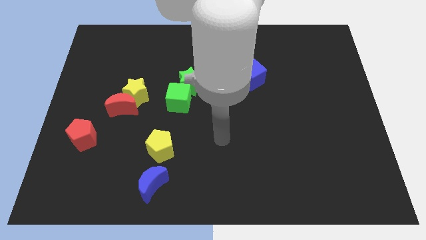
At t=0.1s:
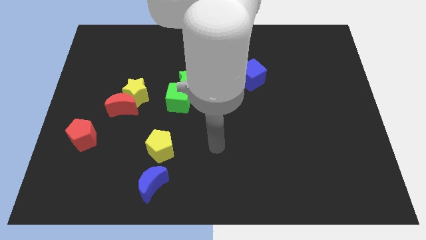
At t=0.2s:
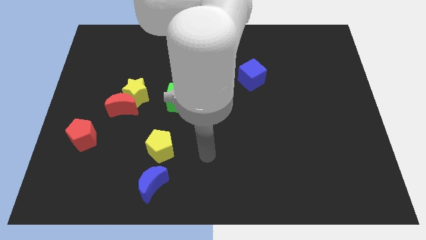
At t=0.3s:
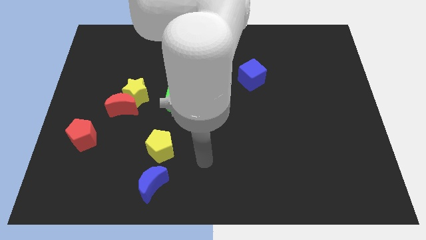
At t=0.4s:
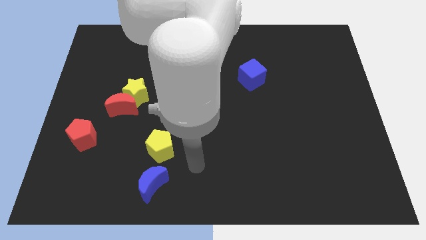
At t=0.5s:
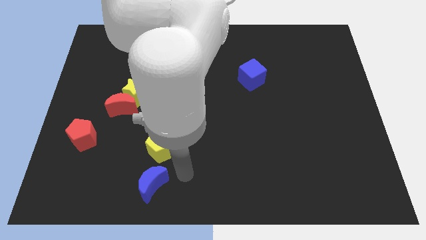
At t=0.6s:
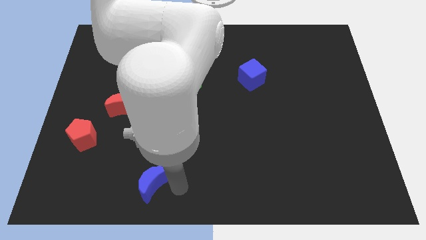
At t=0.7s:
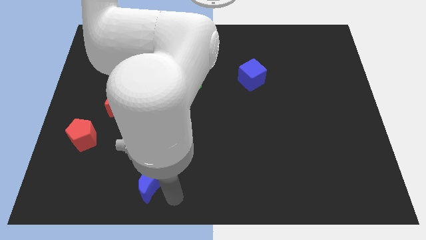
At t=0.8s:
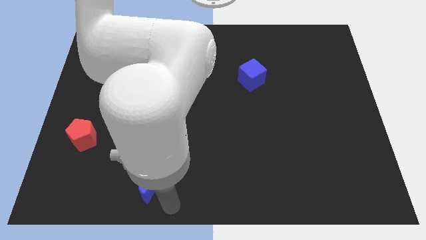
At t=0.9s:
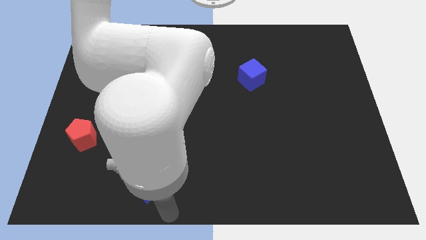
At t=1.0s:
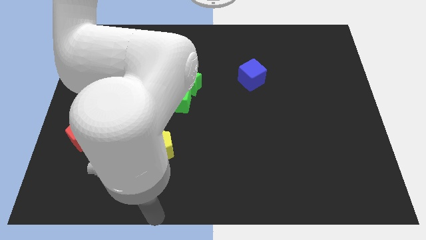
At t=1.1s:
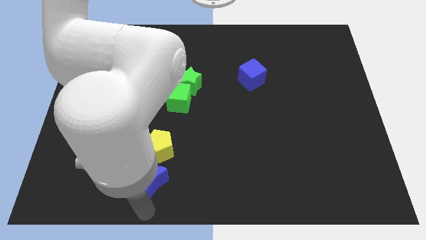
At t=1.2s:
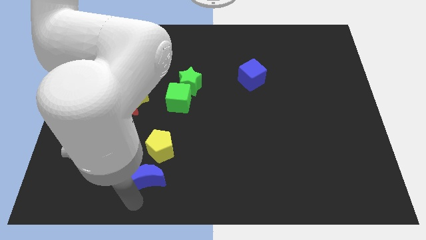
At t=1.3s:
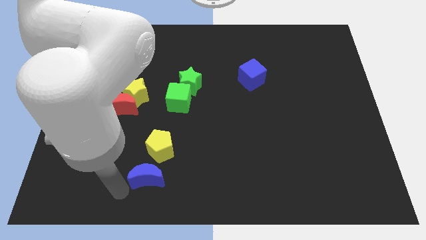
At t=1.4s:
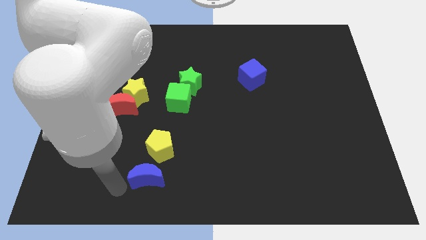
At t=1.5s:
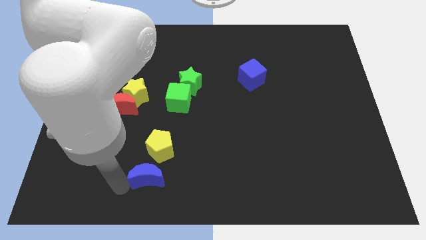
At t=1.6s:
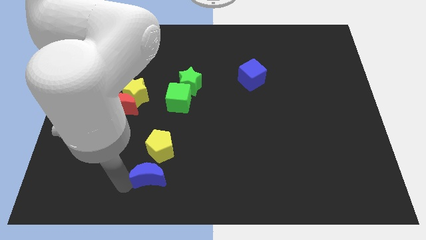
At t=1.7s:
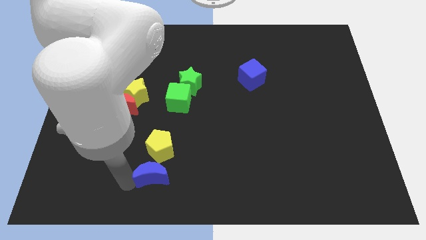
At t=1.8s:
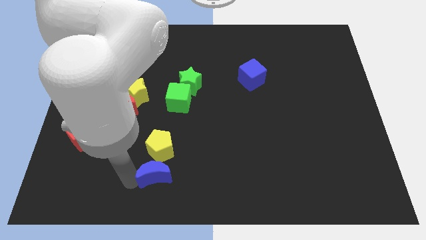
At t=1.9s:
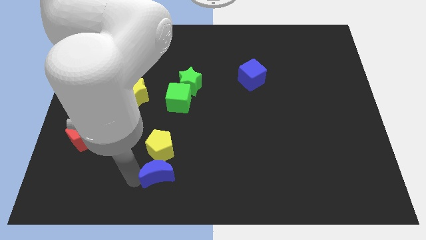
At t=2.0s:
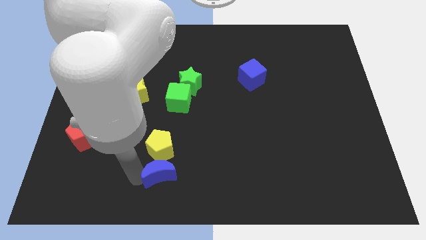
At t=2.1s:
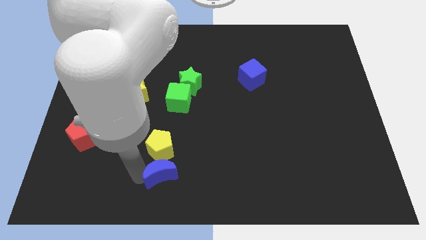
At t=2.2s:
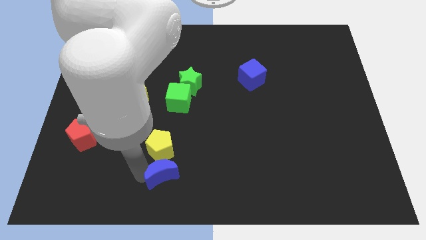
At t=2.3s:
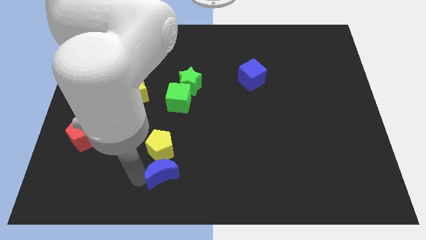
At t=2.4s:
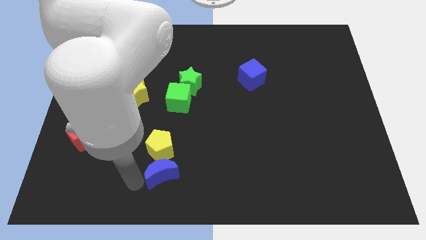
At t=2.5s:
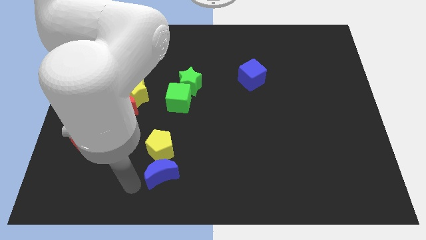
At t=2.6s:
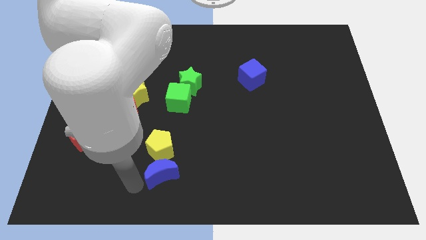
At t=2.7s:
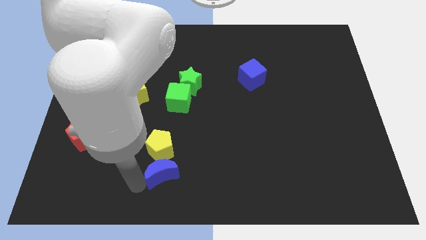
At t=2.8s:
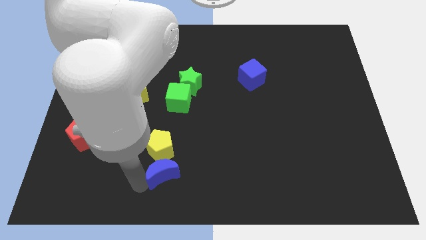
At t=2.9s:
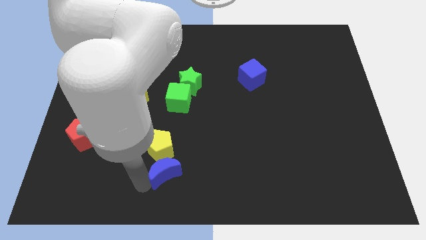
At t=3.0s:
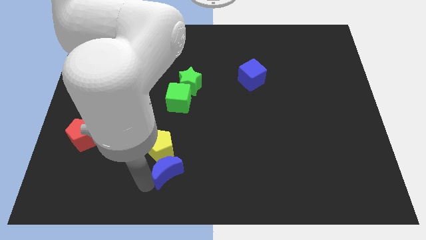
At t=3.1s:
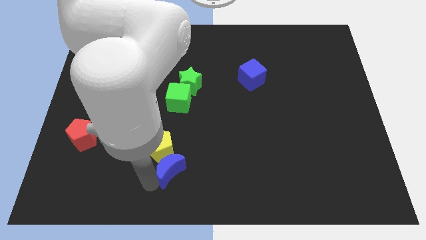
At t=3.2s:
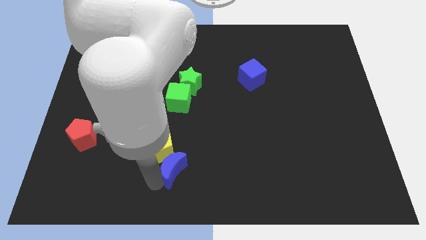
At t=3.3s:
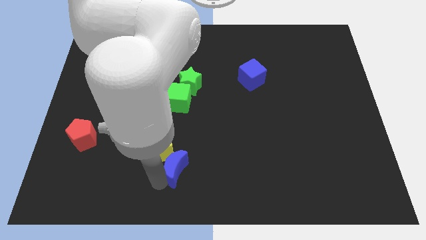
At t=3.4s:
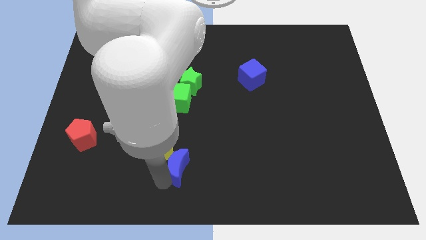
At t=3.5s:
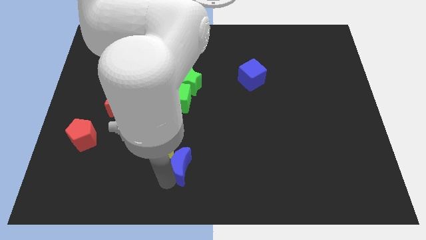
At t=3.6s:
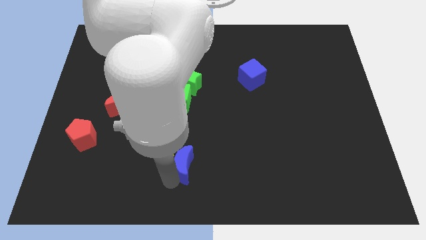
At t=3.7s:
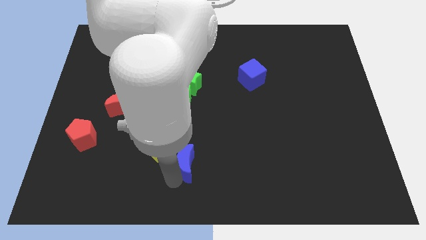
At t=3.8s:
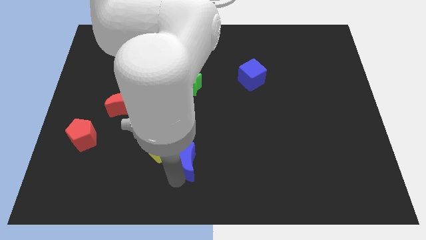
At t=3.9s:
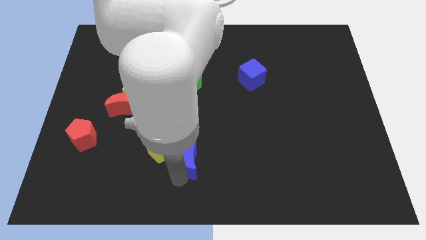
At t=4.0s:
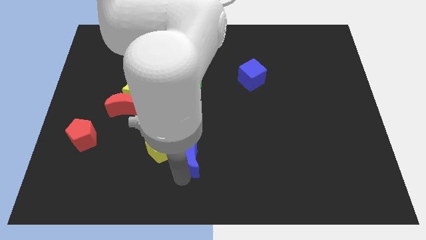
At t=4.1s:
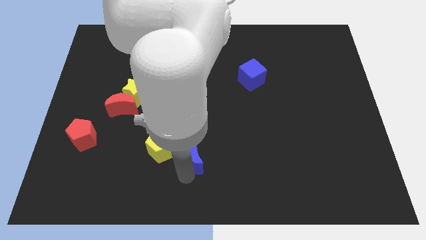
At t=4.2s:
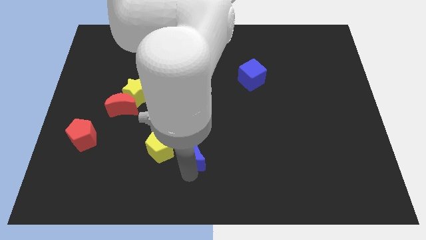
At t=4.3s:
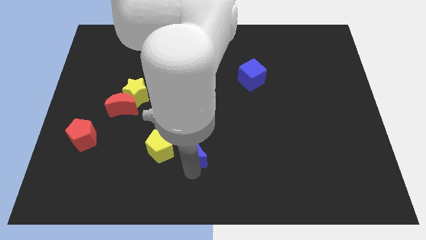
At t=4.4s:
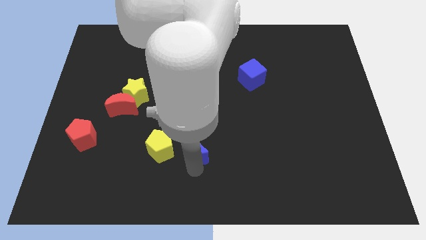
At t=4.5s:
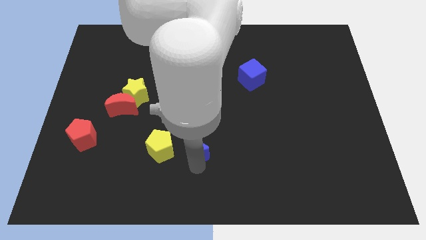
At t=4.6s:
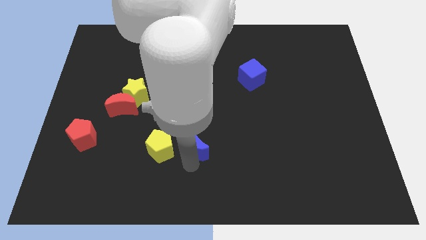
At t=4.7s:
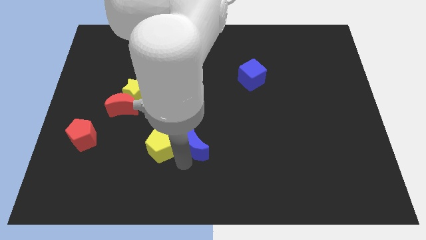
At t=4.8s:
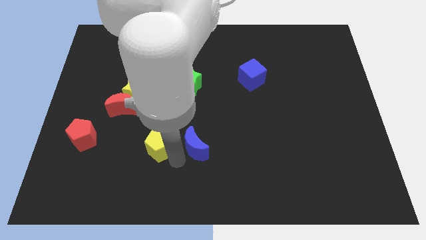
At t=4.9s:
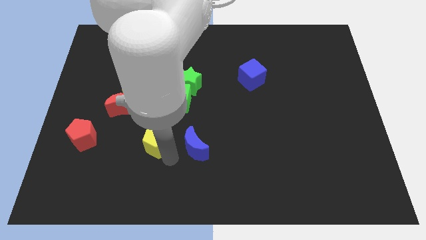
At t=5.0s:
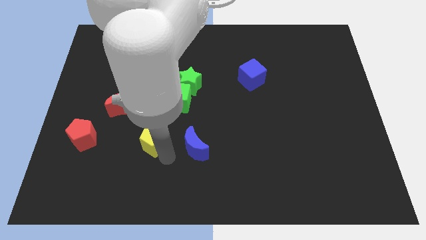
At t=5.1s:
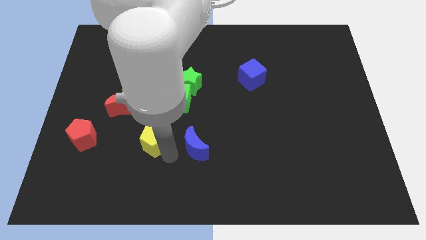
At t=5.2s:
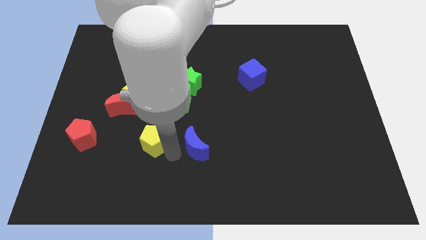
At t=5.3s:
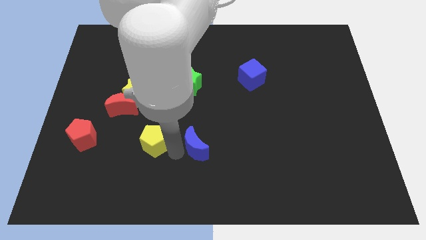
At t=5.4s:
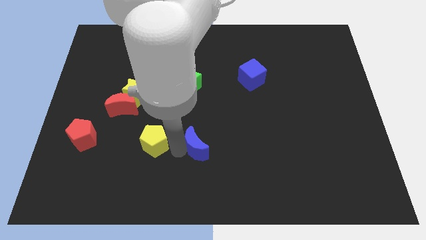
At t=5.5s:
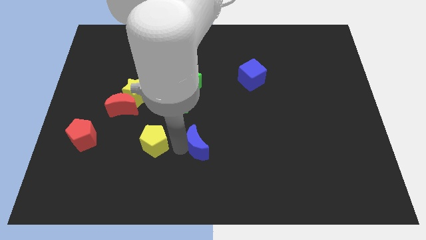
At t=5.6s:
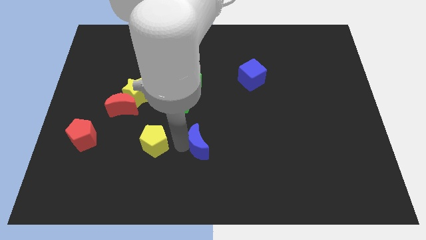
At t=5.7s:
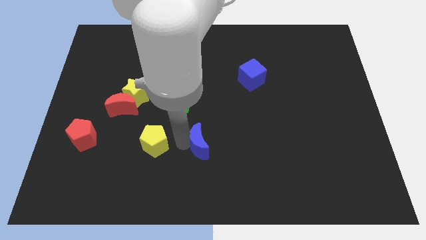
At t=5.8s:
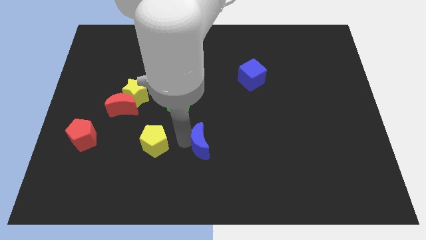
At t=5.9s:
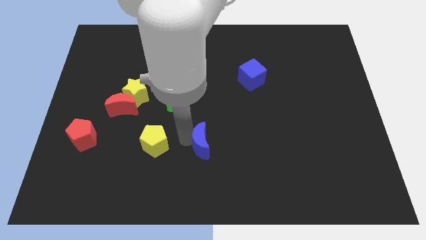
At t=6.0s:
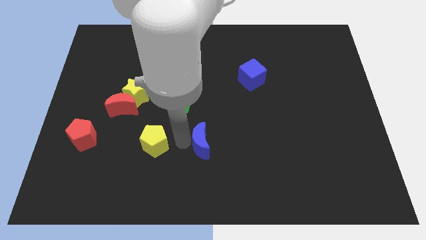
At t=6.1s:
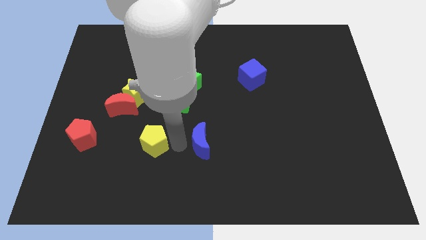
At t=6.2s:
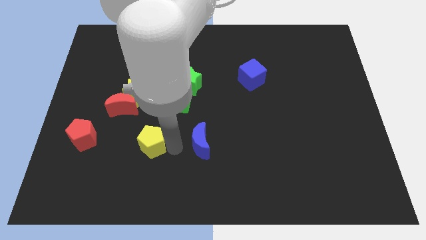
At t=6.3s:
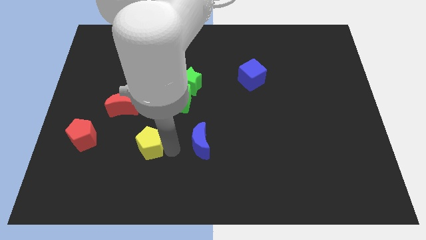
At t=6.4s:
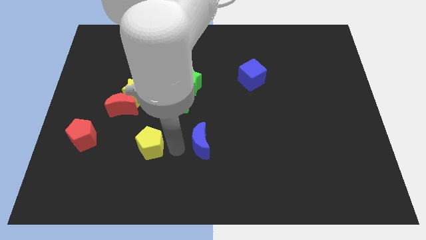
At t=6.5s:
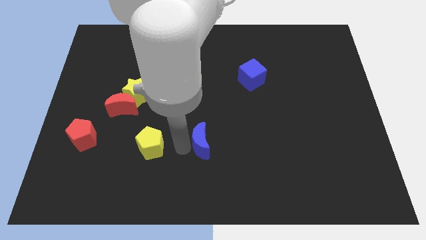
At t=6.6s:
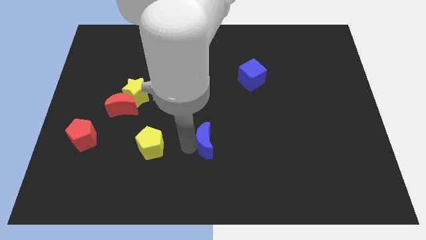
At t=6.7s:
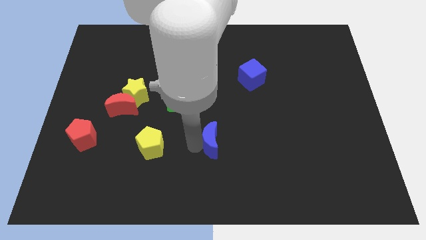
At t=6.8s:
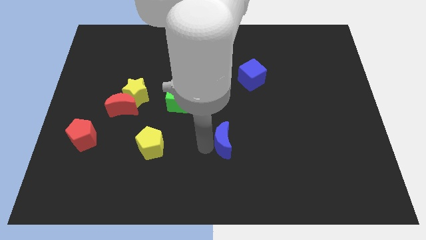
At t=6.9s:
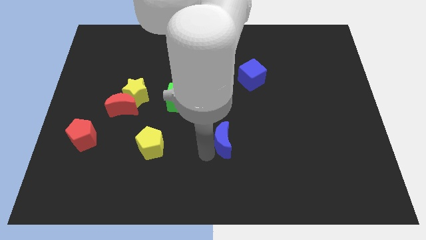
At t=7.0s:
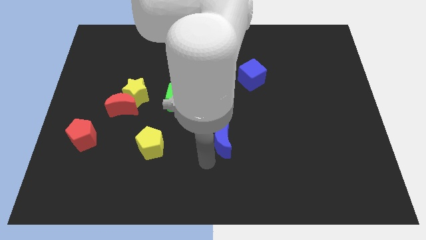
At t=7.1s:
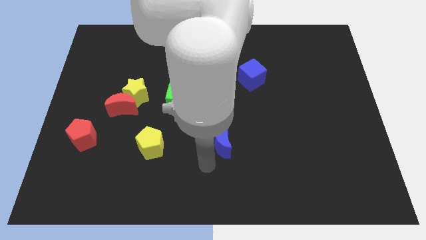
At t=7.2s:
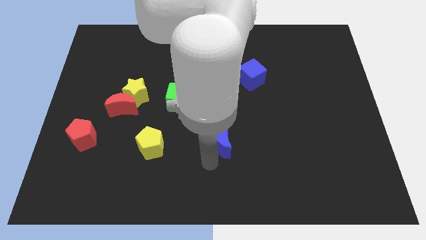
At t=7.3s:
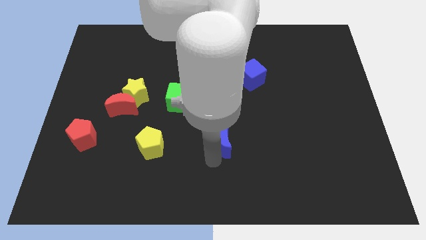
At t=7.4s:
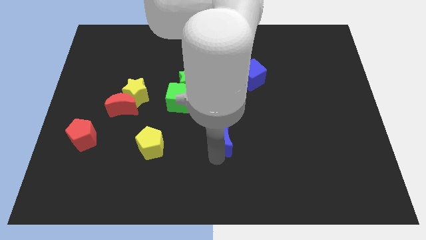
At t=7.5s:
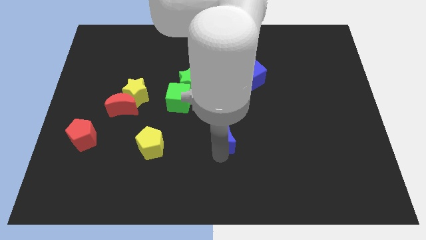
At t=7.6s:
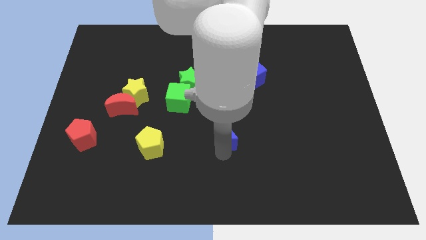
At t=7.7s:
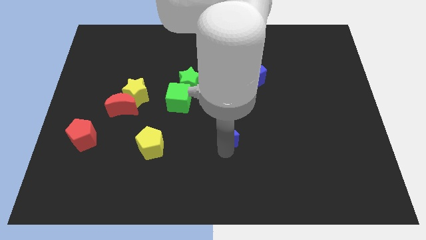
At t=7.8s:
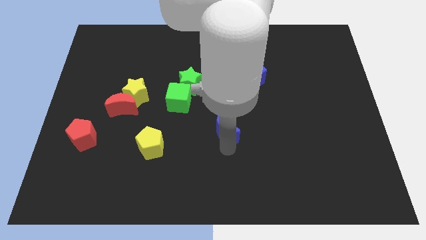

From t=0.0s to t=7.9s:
slide the blue moon upwards and to the right diagonally
